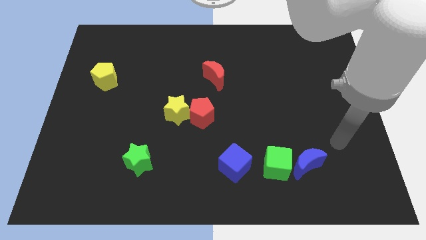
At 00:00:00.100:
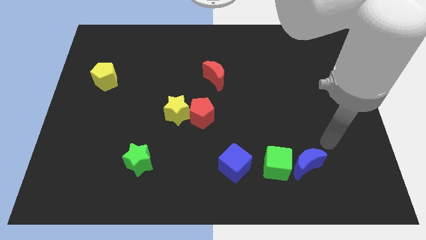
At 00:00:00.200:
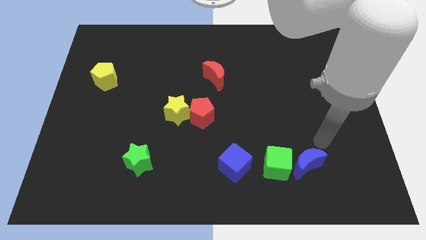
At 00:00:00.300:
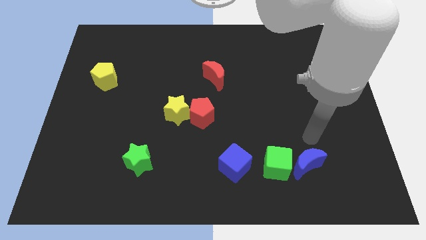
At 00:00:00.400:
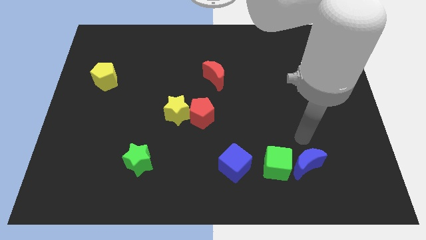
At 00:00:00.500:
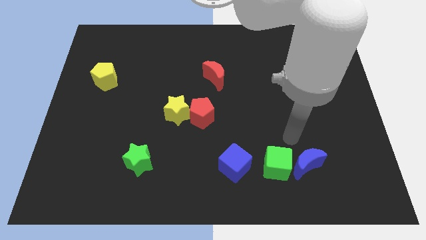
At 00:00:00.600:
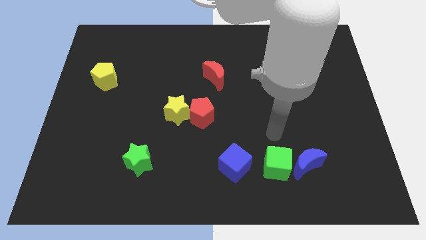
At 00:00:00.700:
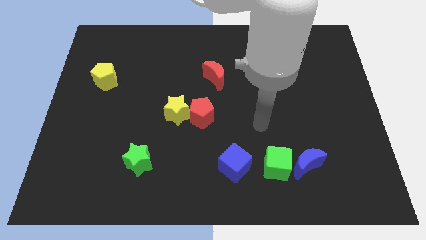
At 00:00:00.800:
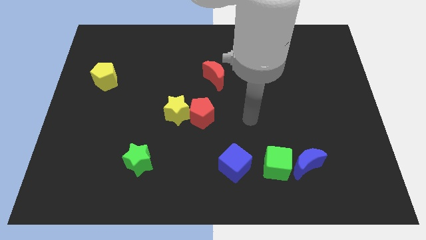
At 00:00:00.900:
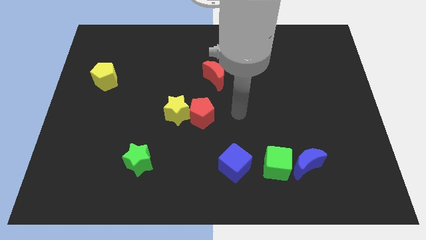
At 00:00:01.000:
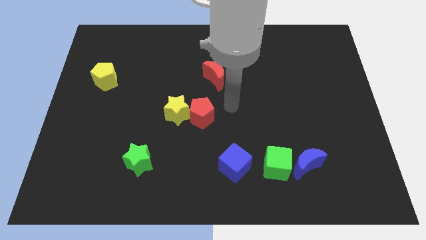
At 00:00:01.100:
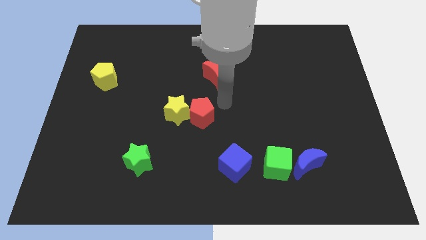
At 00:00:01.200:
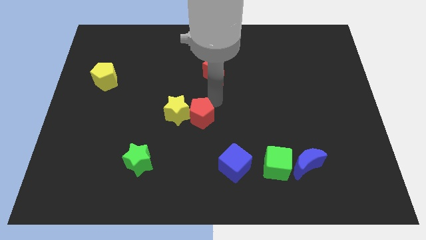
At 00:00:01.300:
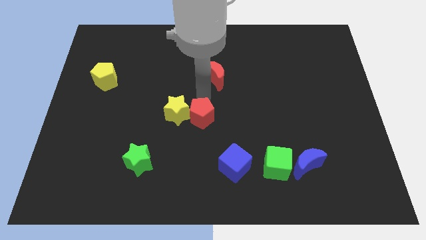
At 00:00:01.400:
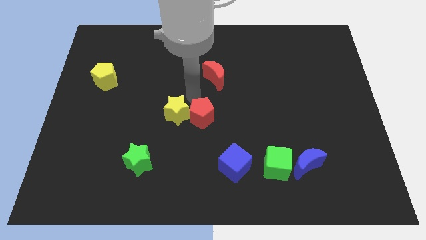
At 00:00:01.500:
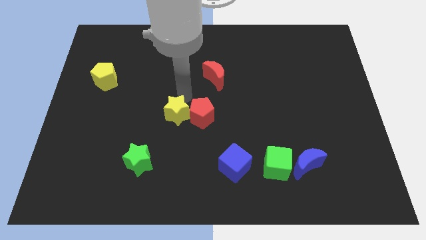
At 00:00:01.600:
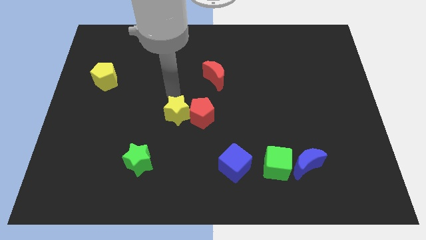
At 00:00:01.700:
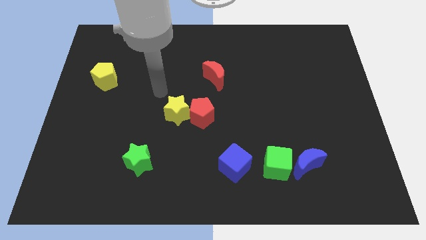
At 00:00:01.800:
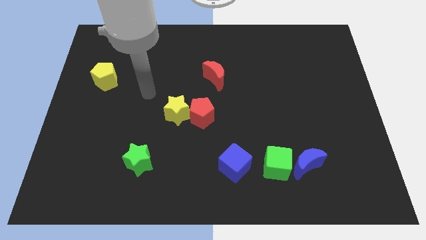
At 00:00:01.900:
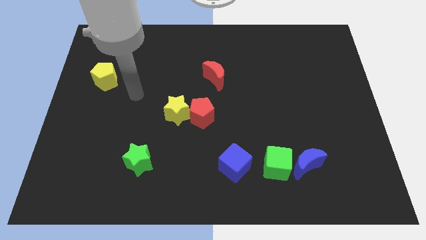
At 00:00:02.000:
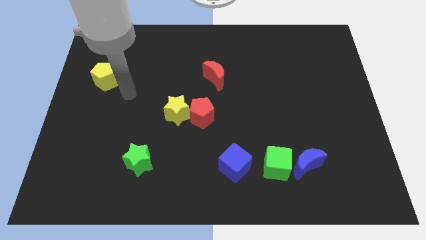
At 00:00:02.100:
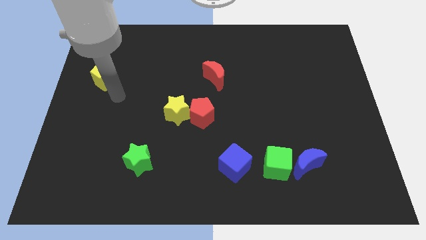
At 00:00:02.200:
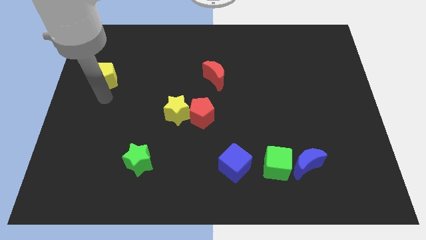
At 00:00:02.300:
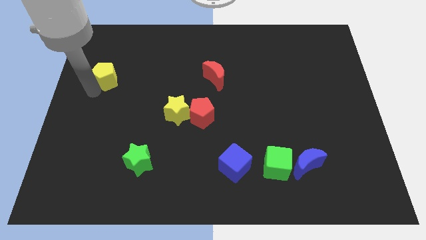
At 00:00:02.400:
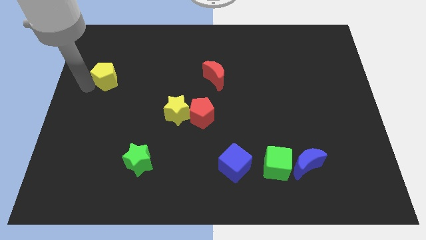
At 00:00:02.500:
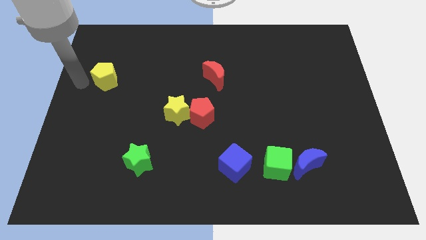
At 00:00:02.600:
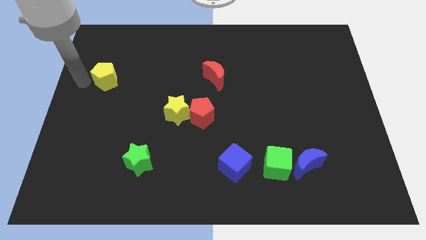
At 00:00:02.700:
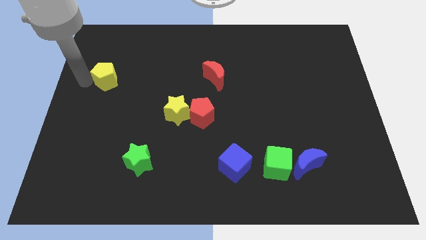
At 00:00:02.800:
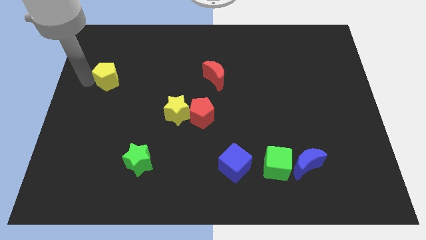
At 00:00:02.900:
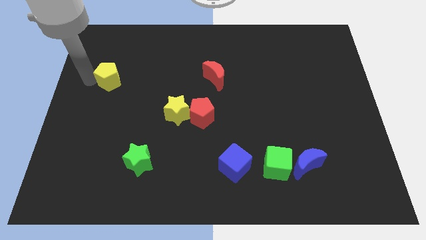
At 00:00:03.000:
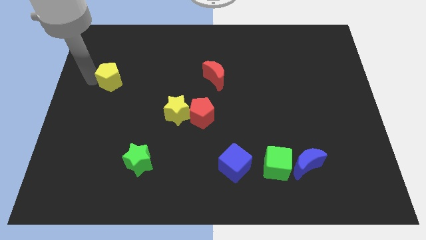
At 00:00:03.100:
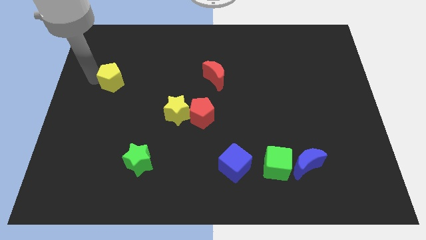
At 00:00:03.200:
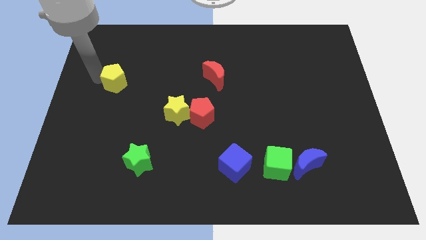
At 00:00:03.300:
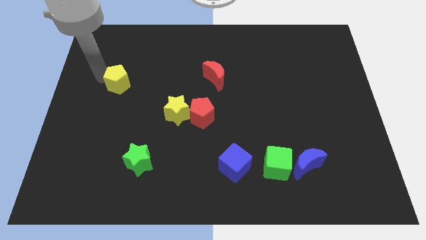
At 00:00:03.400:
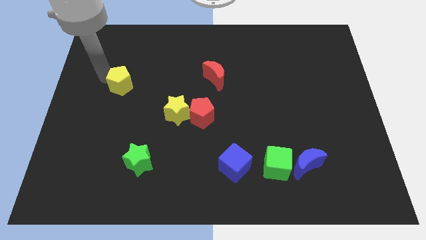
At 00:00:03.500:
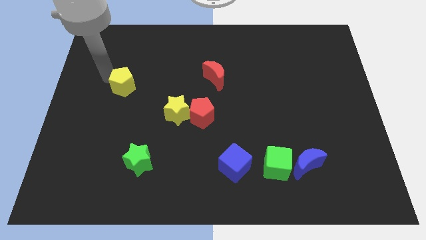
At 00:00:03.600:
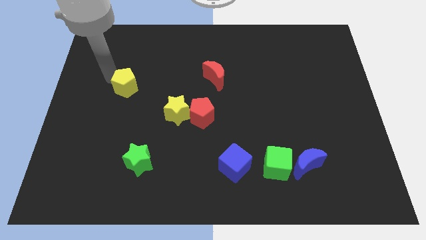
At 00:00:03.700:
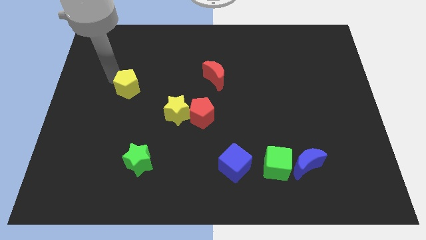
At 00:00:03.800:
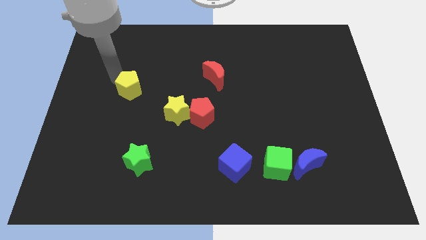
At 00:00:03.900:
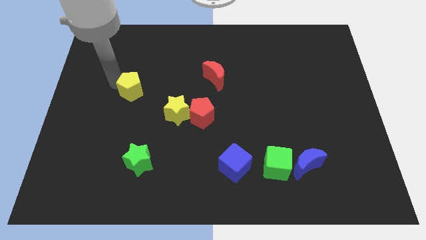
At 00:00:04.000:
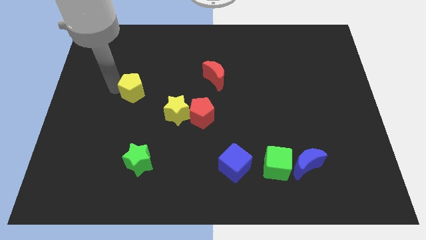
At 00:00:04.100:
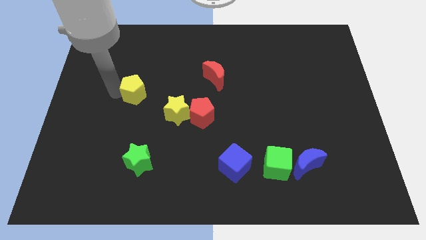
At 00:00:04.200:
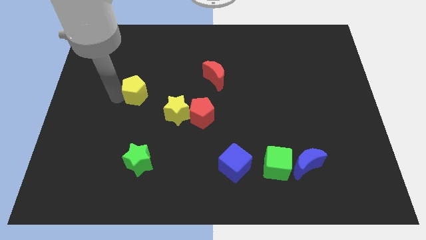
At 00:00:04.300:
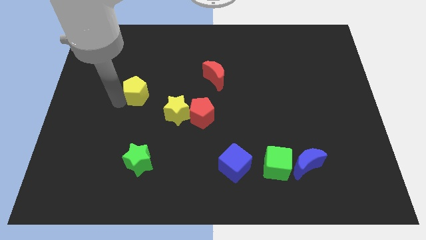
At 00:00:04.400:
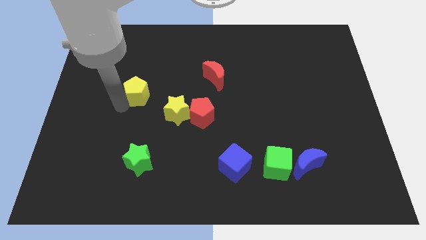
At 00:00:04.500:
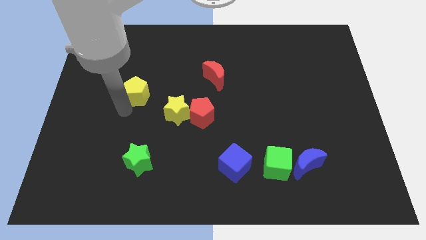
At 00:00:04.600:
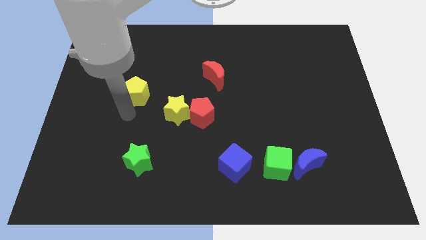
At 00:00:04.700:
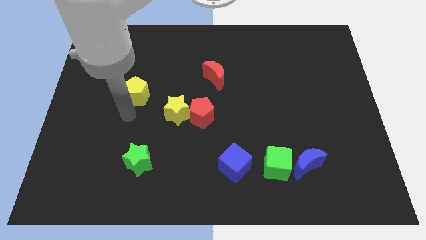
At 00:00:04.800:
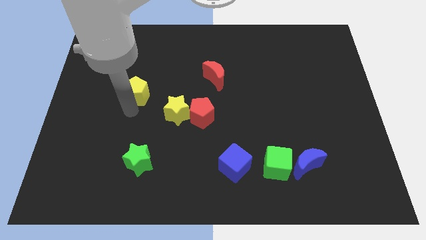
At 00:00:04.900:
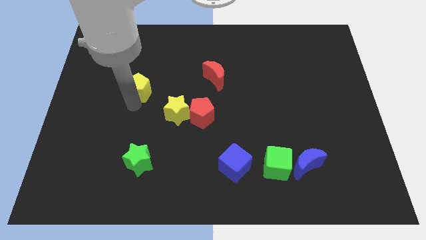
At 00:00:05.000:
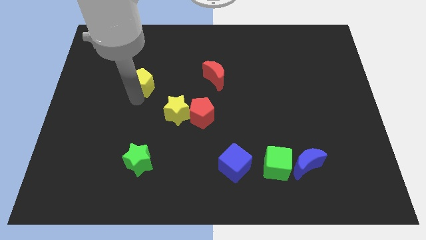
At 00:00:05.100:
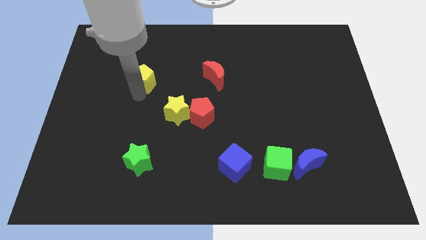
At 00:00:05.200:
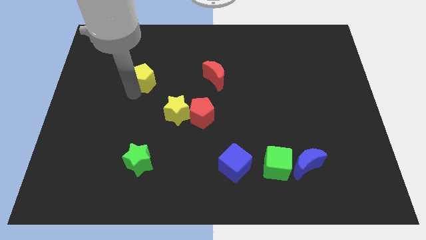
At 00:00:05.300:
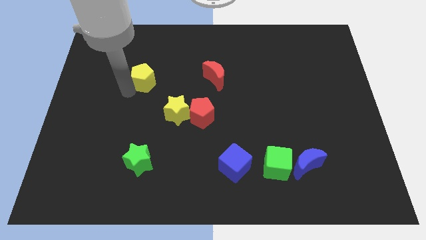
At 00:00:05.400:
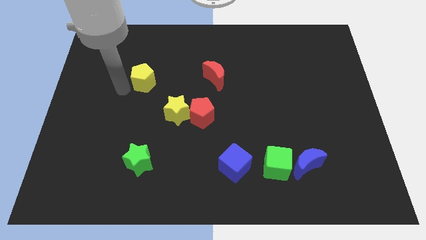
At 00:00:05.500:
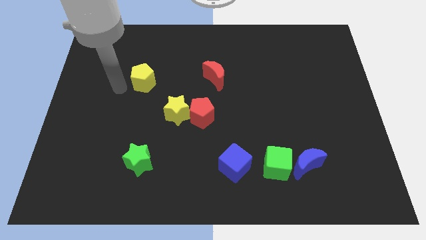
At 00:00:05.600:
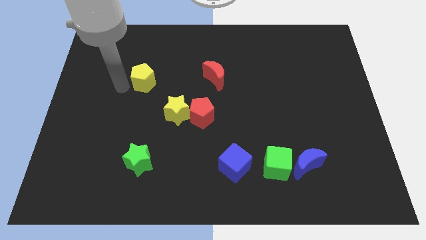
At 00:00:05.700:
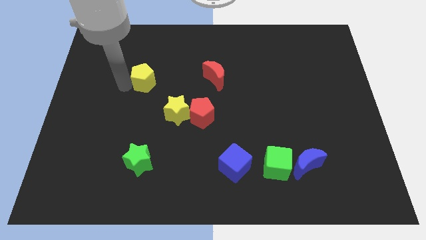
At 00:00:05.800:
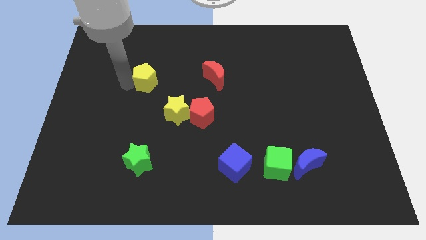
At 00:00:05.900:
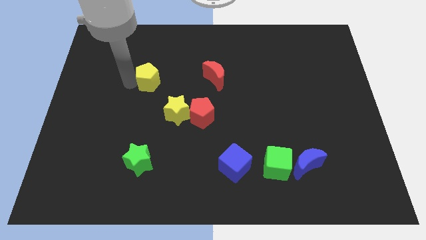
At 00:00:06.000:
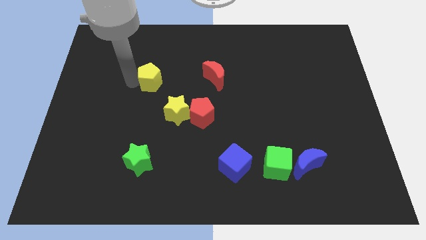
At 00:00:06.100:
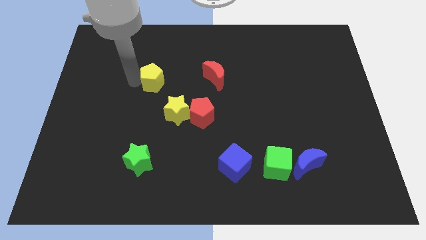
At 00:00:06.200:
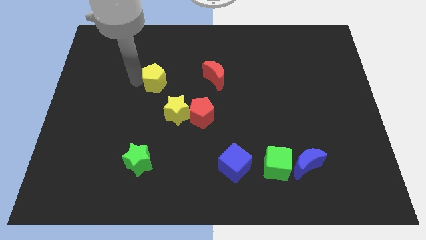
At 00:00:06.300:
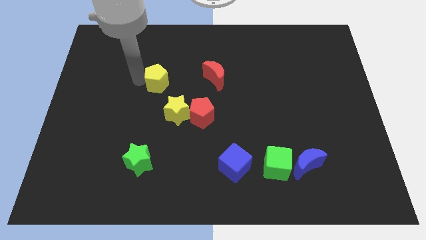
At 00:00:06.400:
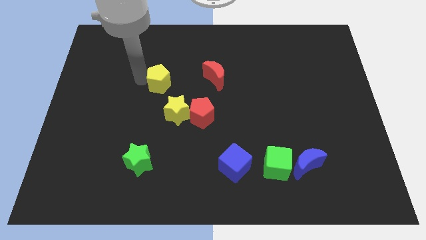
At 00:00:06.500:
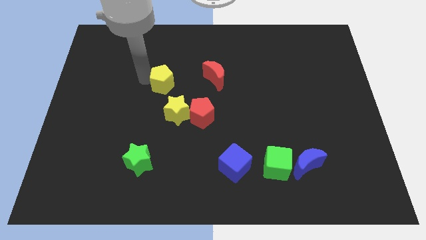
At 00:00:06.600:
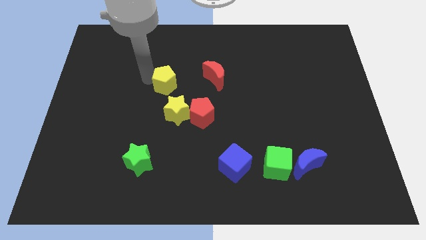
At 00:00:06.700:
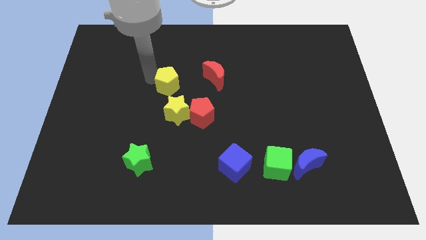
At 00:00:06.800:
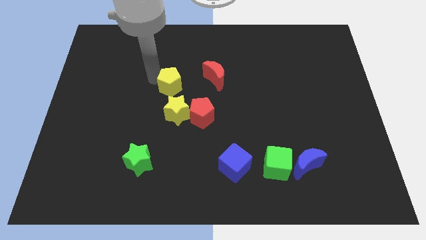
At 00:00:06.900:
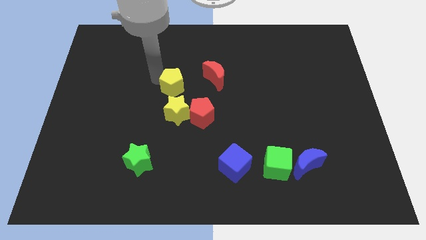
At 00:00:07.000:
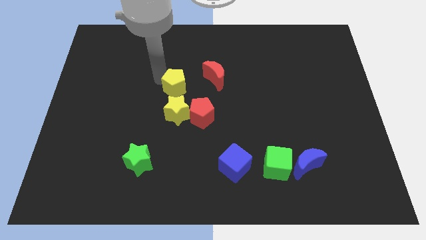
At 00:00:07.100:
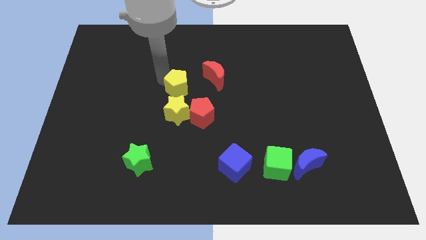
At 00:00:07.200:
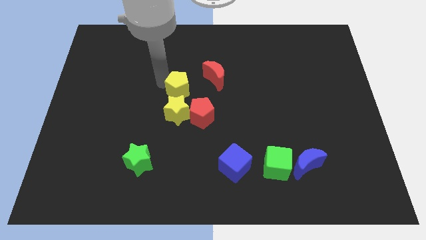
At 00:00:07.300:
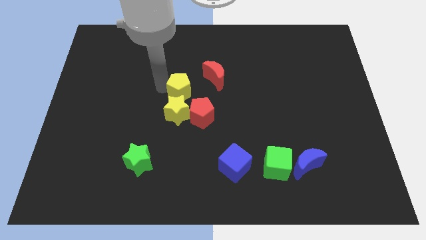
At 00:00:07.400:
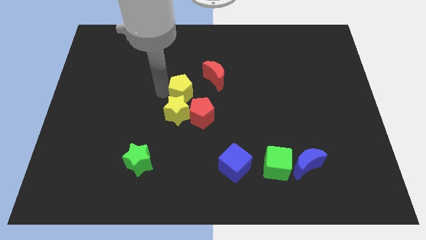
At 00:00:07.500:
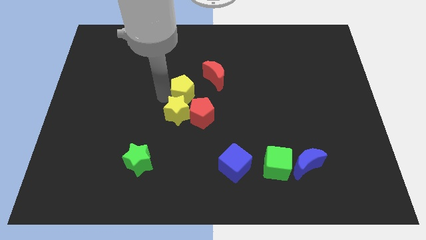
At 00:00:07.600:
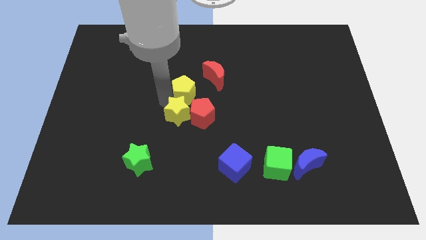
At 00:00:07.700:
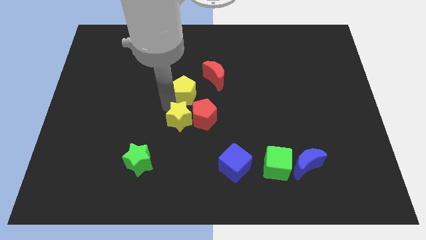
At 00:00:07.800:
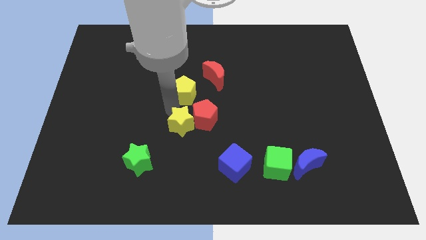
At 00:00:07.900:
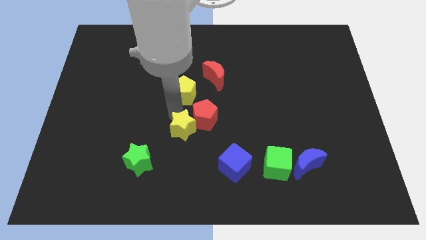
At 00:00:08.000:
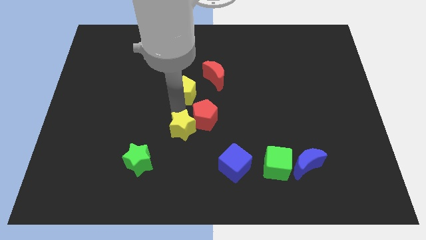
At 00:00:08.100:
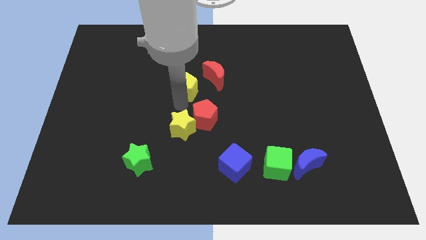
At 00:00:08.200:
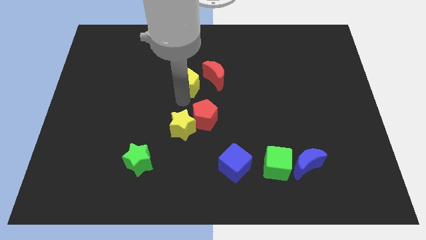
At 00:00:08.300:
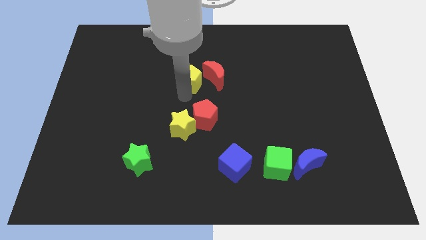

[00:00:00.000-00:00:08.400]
move the yellow pentagon towards the red moon
